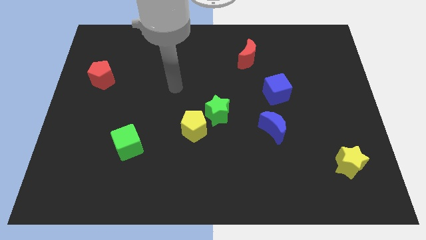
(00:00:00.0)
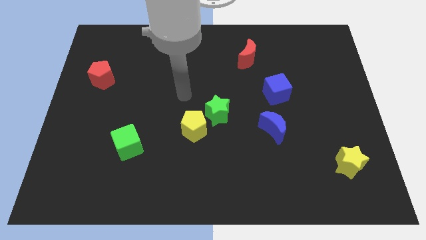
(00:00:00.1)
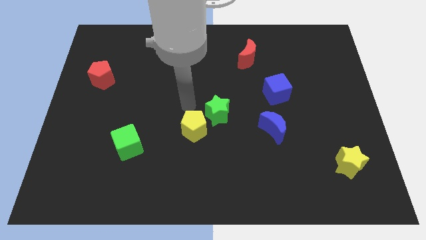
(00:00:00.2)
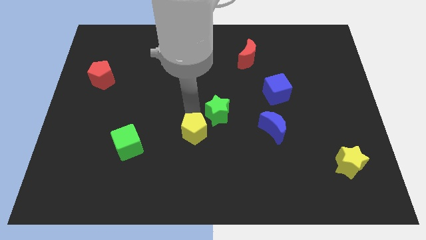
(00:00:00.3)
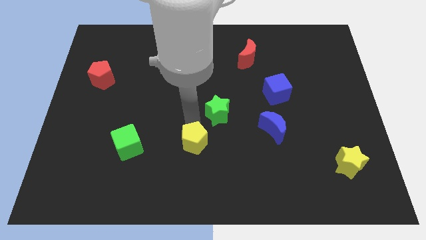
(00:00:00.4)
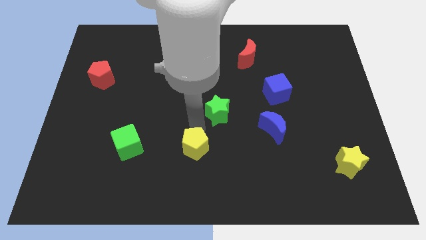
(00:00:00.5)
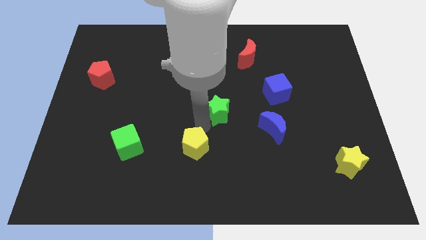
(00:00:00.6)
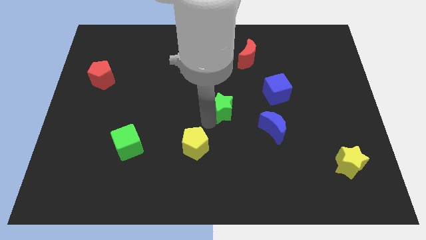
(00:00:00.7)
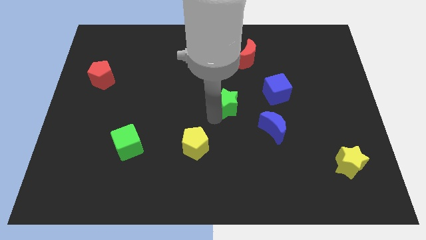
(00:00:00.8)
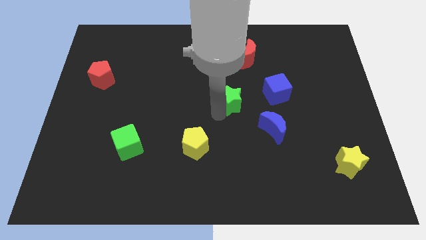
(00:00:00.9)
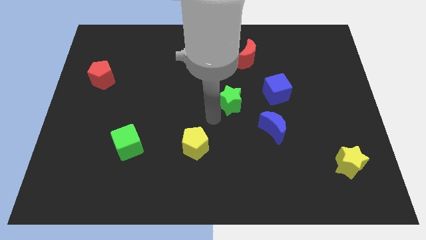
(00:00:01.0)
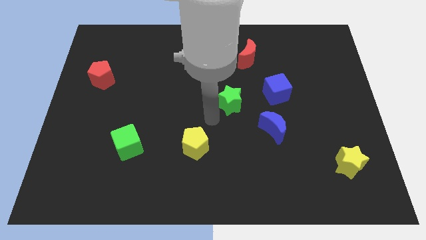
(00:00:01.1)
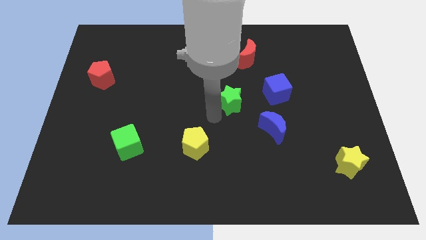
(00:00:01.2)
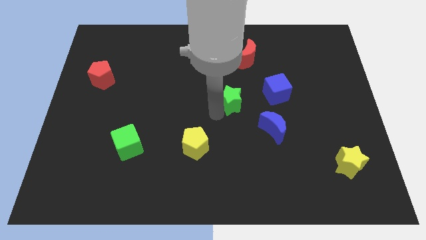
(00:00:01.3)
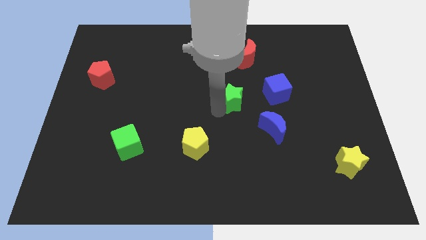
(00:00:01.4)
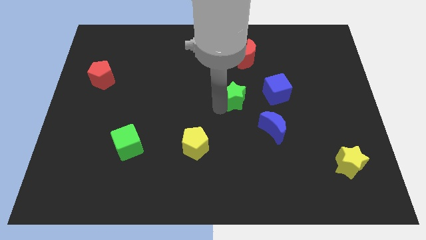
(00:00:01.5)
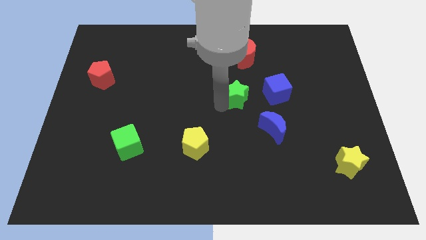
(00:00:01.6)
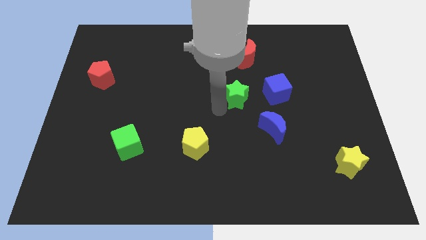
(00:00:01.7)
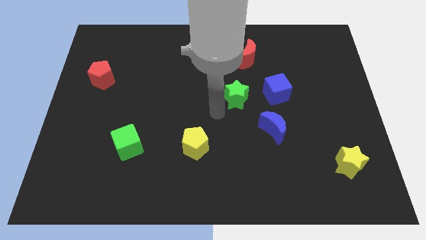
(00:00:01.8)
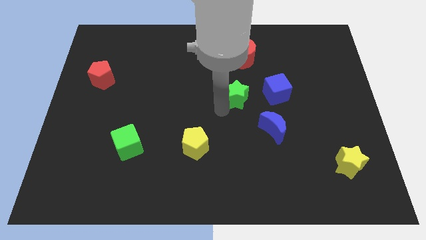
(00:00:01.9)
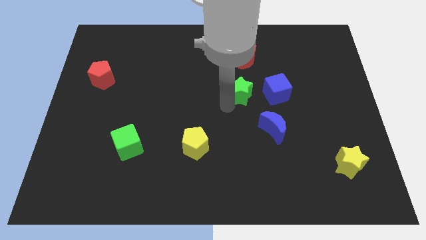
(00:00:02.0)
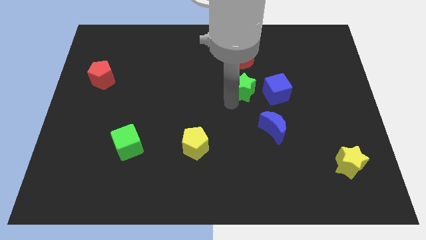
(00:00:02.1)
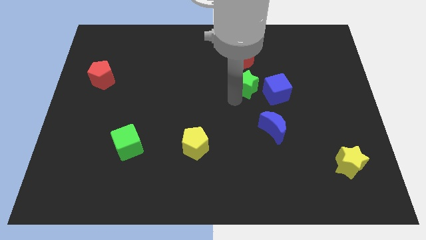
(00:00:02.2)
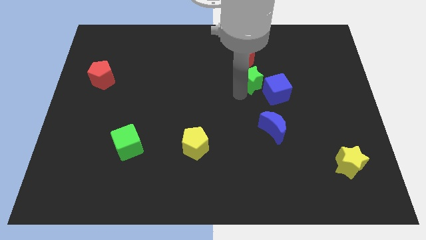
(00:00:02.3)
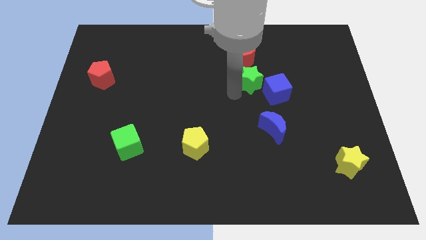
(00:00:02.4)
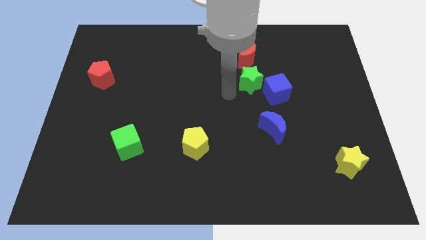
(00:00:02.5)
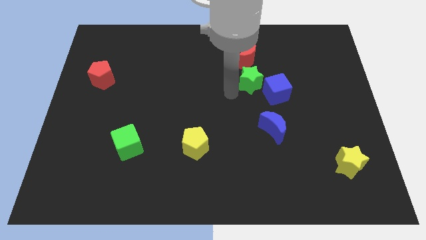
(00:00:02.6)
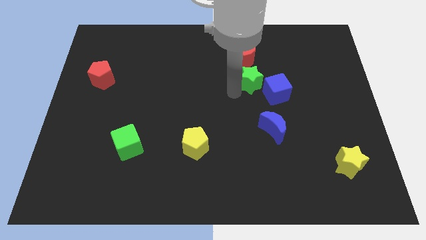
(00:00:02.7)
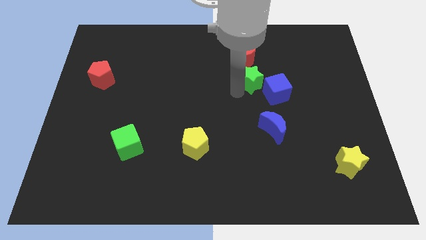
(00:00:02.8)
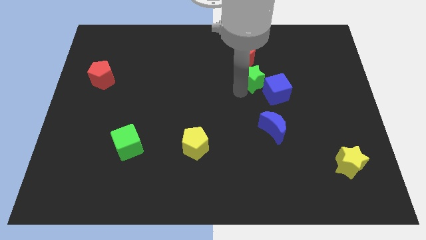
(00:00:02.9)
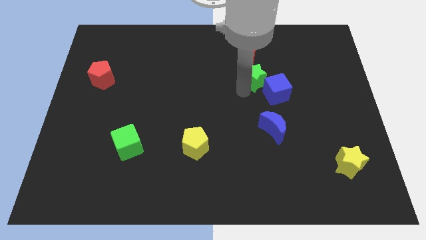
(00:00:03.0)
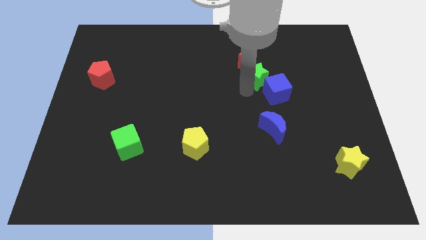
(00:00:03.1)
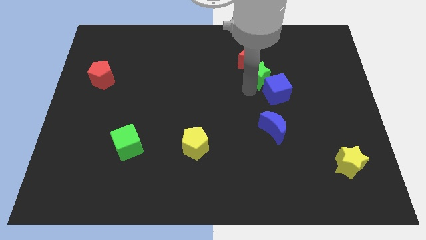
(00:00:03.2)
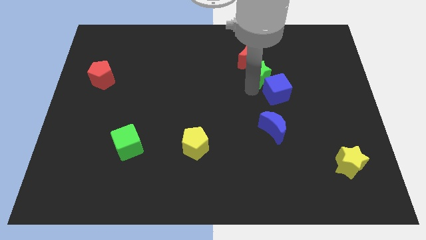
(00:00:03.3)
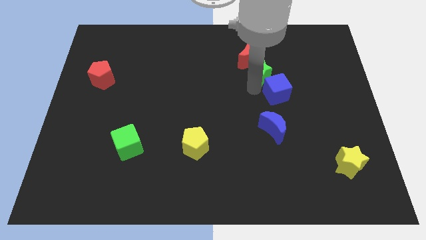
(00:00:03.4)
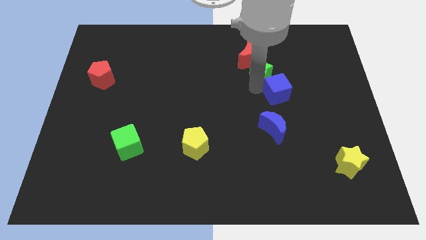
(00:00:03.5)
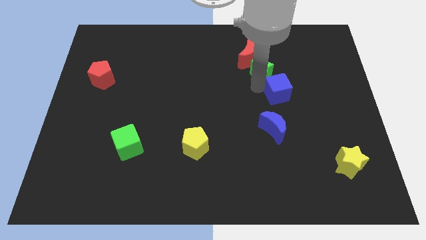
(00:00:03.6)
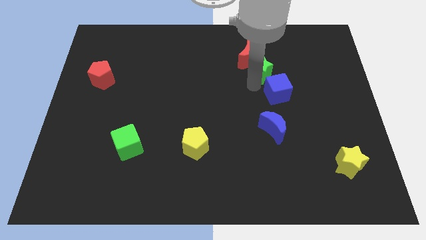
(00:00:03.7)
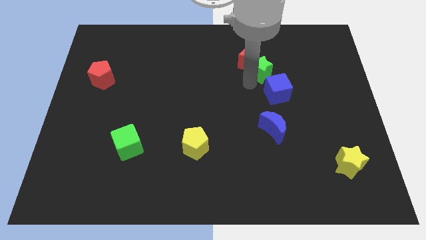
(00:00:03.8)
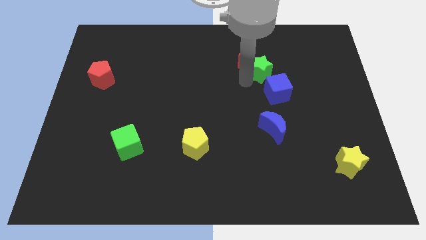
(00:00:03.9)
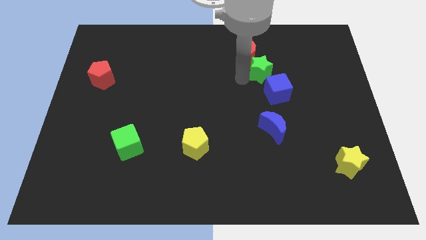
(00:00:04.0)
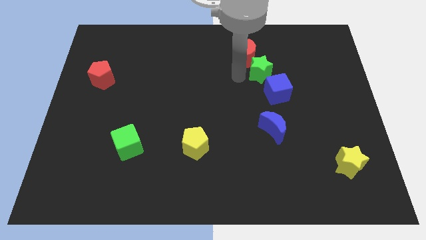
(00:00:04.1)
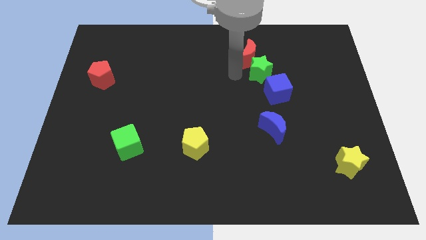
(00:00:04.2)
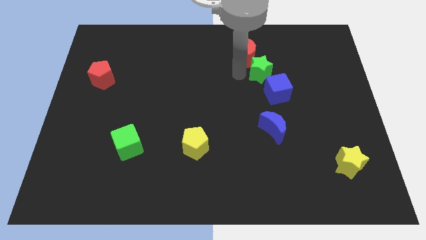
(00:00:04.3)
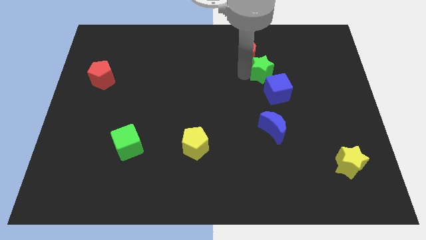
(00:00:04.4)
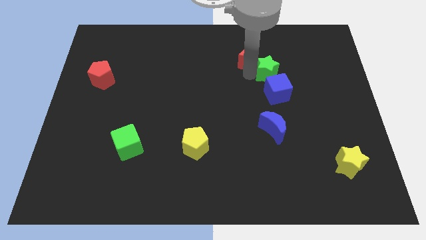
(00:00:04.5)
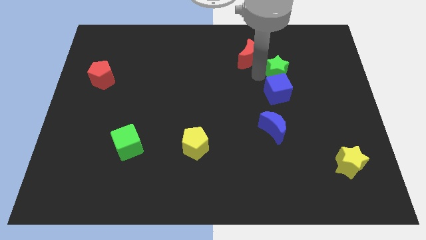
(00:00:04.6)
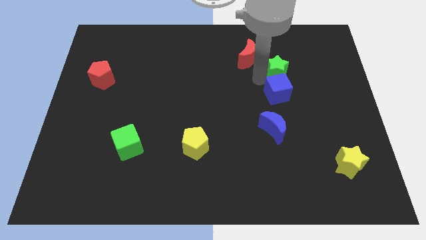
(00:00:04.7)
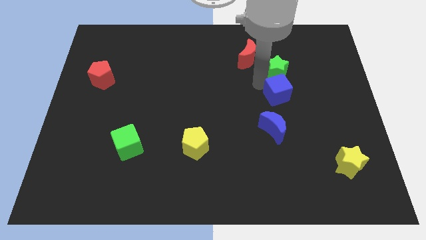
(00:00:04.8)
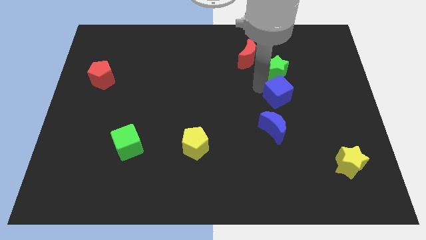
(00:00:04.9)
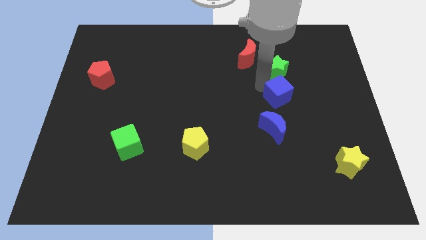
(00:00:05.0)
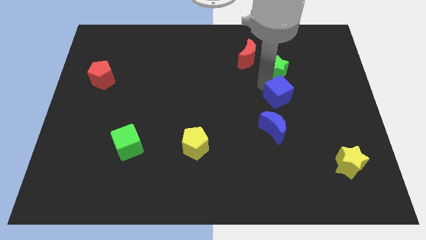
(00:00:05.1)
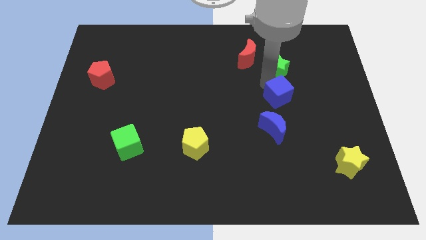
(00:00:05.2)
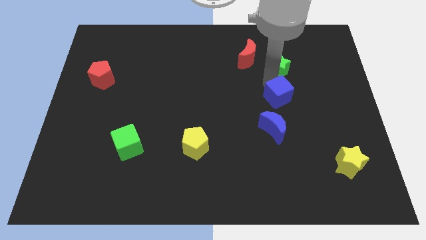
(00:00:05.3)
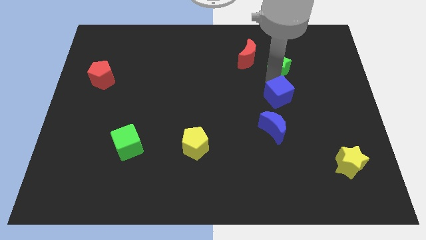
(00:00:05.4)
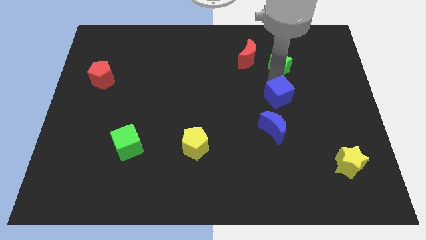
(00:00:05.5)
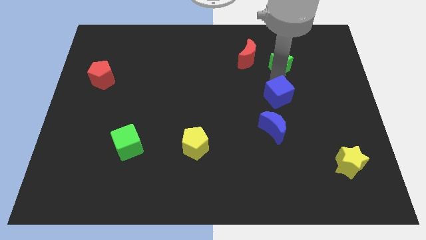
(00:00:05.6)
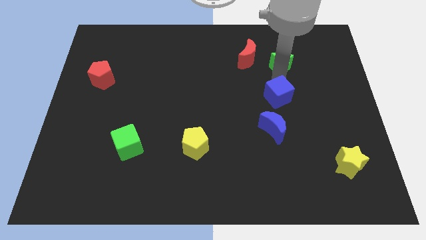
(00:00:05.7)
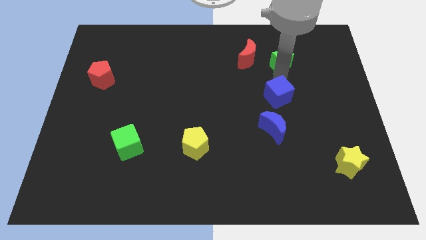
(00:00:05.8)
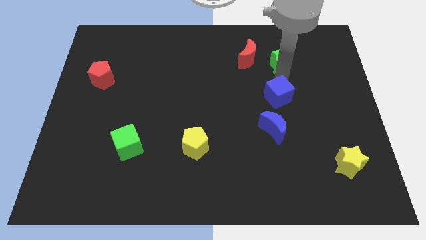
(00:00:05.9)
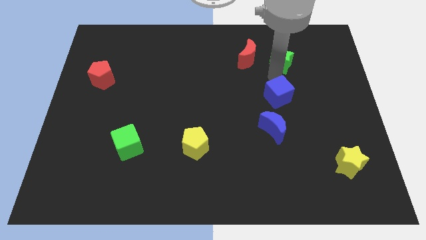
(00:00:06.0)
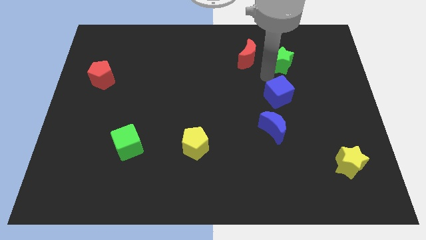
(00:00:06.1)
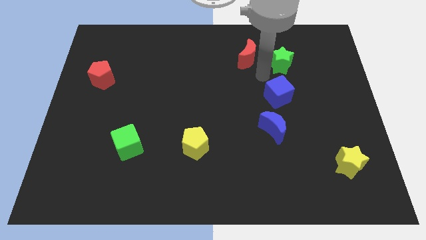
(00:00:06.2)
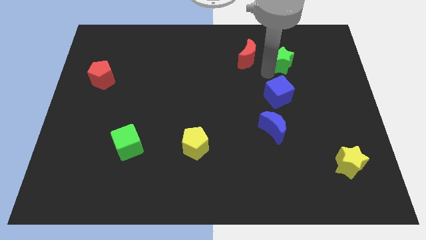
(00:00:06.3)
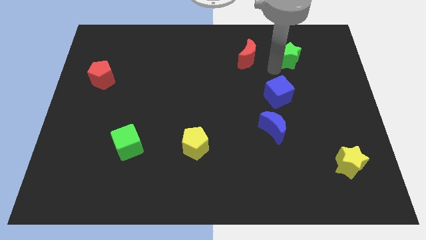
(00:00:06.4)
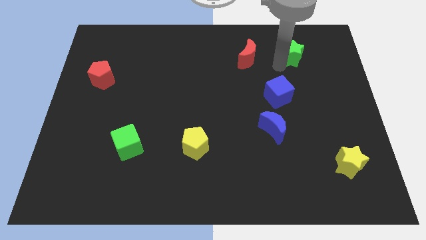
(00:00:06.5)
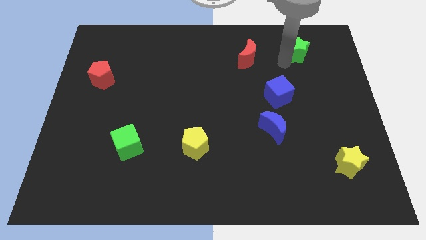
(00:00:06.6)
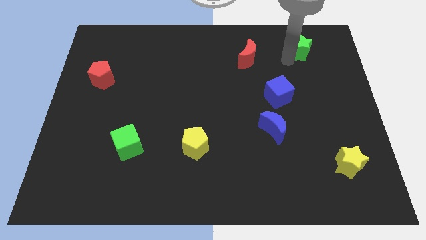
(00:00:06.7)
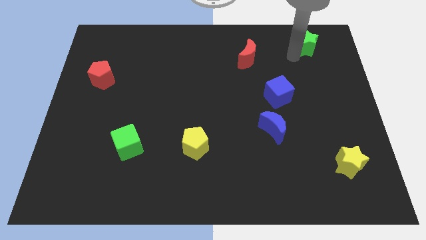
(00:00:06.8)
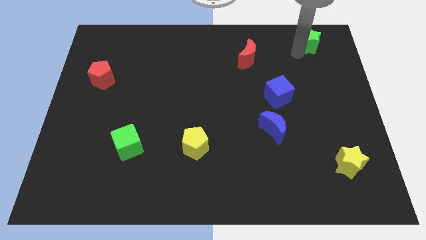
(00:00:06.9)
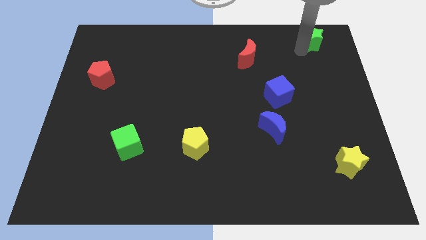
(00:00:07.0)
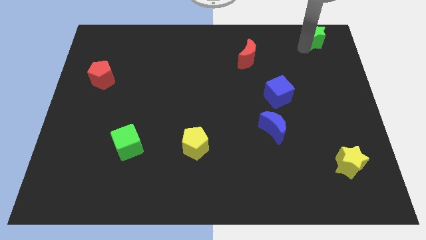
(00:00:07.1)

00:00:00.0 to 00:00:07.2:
push the green star to the top right corner

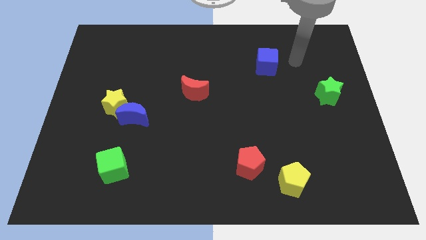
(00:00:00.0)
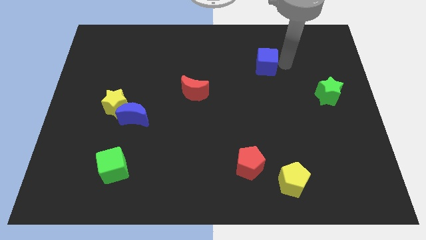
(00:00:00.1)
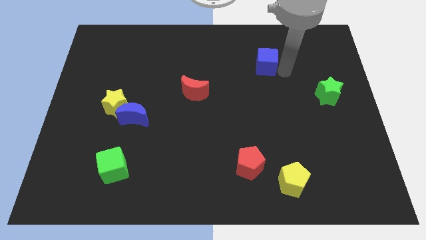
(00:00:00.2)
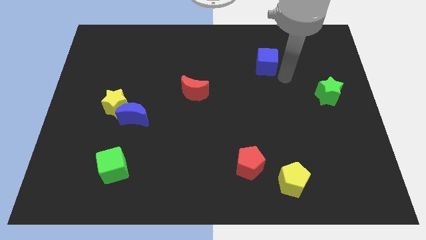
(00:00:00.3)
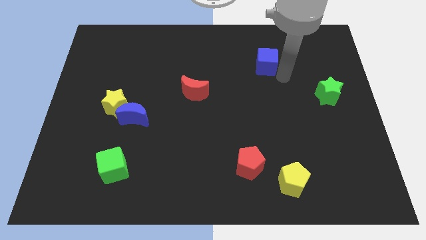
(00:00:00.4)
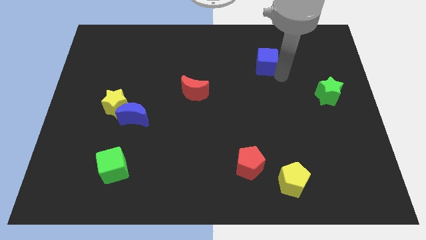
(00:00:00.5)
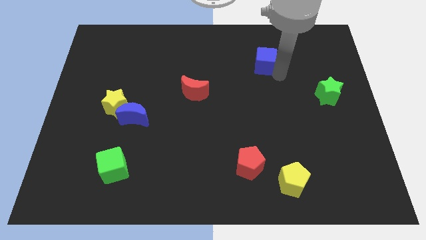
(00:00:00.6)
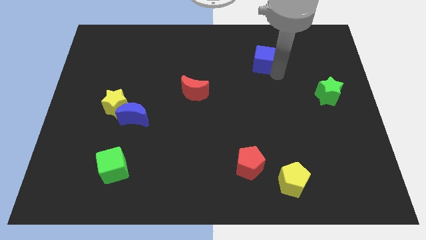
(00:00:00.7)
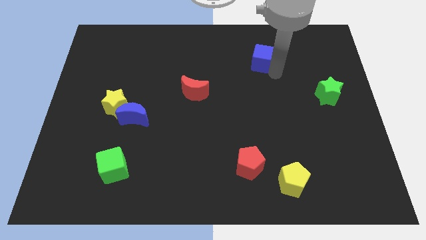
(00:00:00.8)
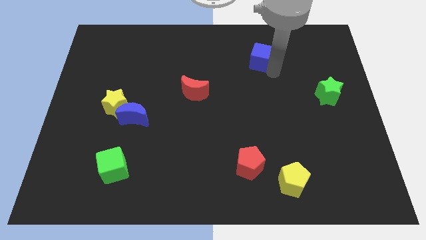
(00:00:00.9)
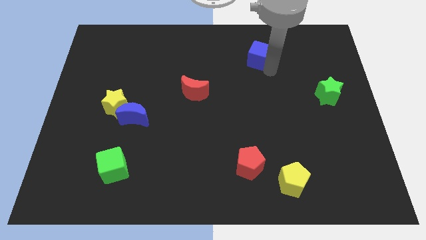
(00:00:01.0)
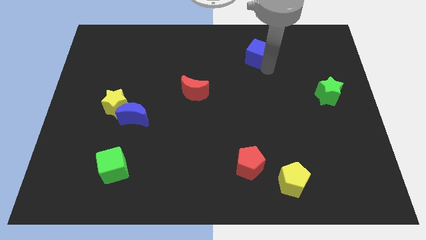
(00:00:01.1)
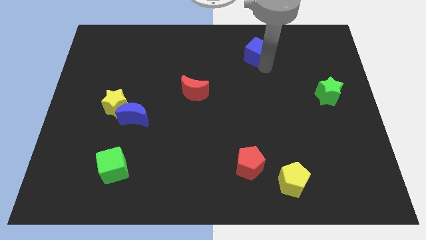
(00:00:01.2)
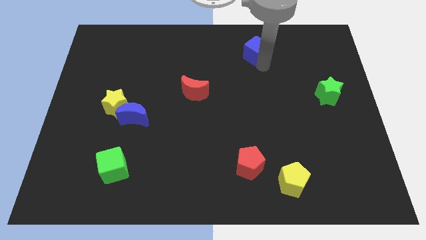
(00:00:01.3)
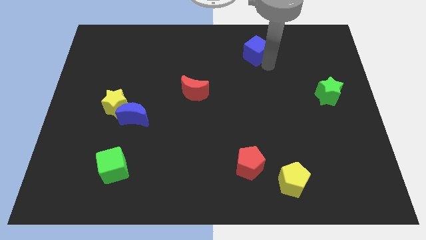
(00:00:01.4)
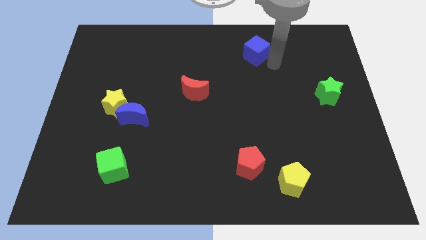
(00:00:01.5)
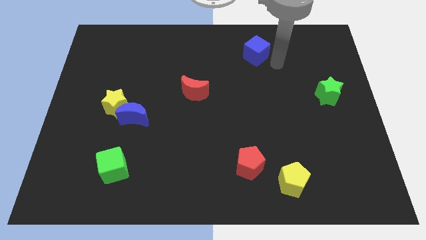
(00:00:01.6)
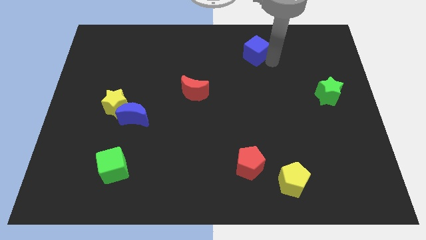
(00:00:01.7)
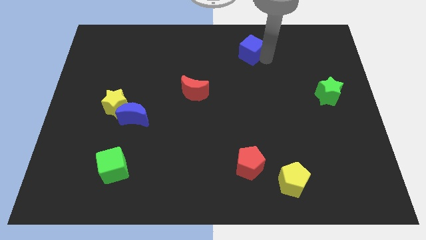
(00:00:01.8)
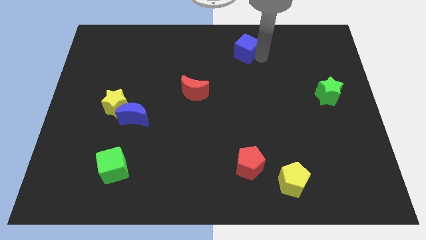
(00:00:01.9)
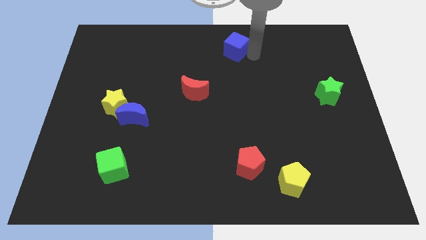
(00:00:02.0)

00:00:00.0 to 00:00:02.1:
push the blue cube to the top side
